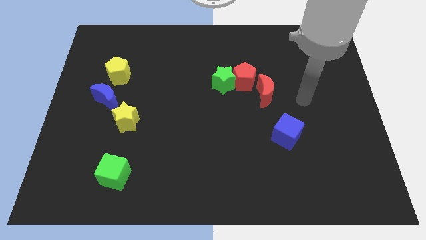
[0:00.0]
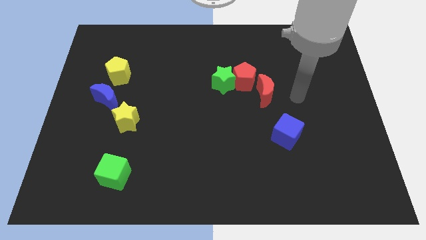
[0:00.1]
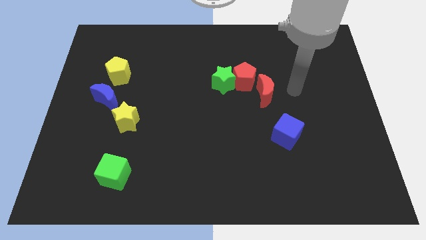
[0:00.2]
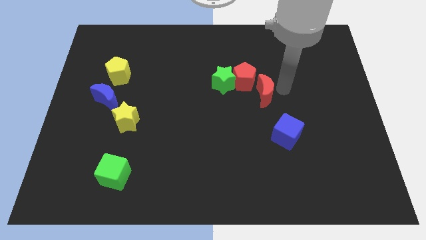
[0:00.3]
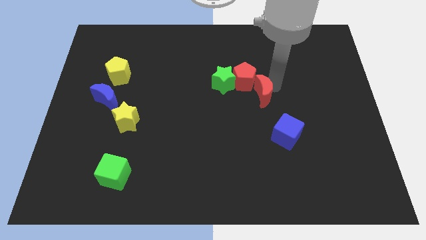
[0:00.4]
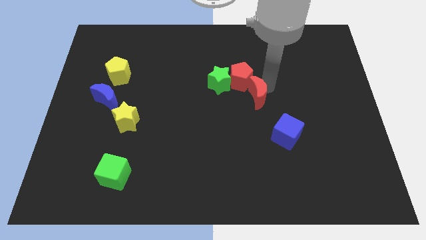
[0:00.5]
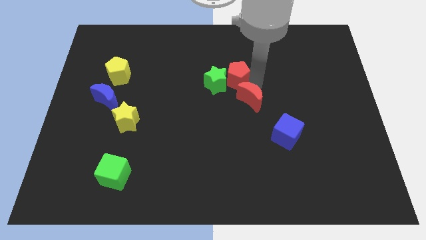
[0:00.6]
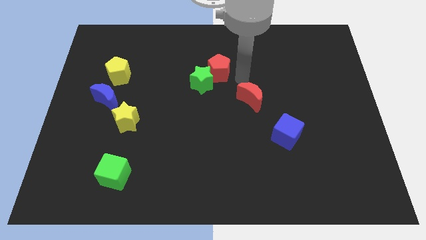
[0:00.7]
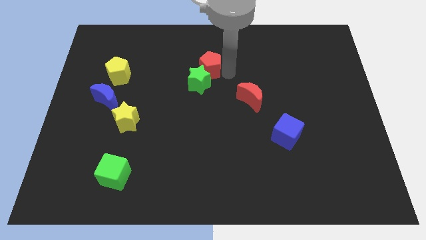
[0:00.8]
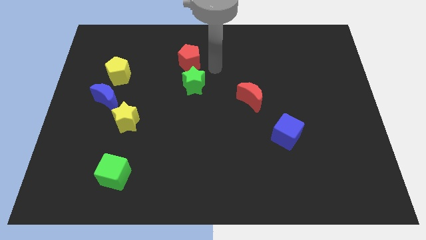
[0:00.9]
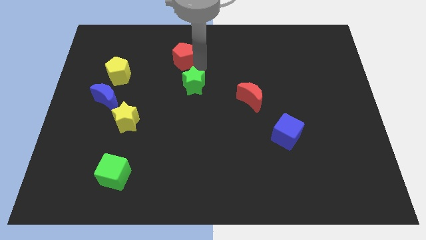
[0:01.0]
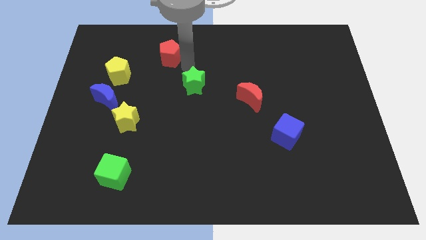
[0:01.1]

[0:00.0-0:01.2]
pull the green star apart from the red pentagon

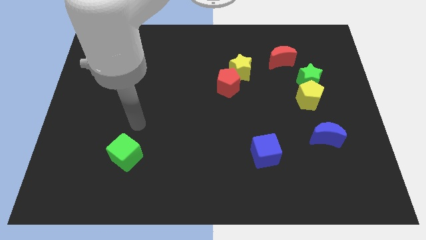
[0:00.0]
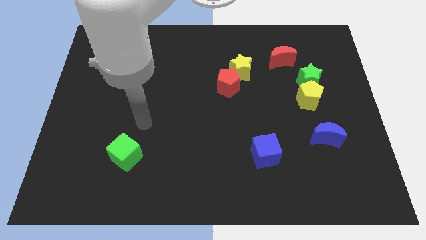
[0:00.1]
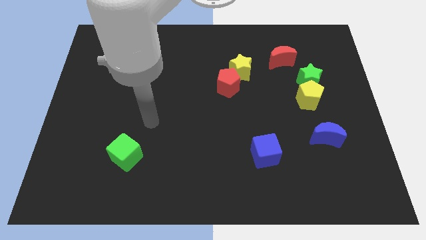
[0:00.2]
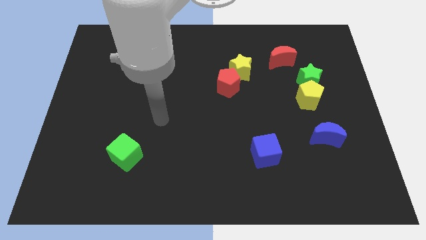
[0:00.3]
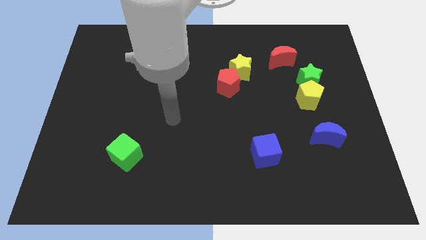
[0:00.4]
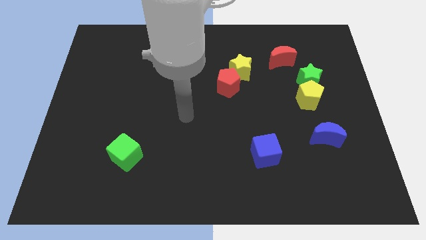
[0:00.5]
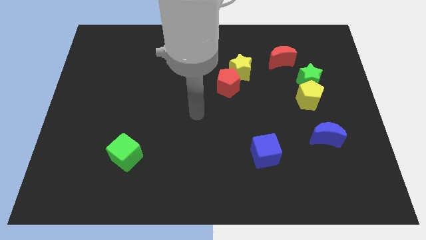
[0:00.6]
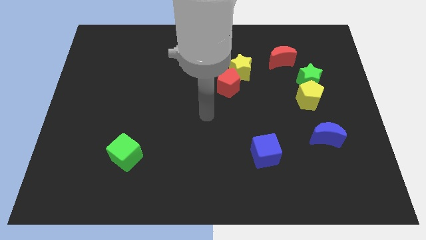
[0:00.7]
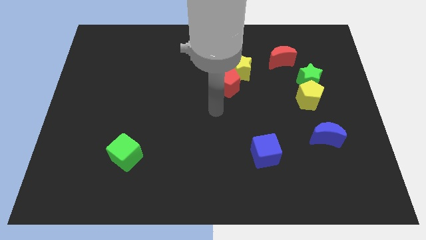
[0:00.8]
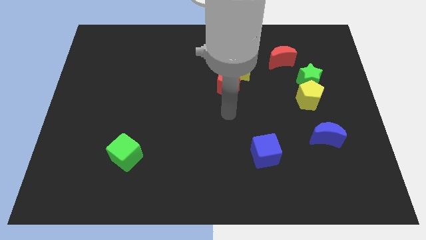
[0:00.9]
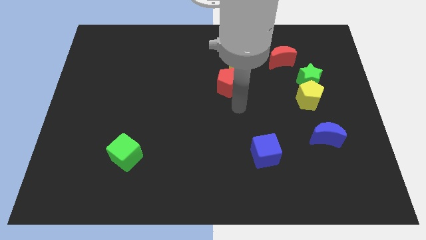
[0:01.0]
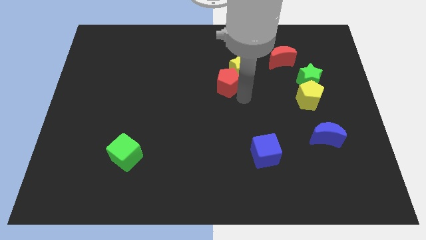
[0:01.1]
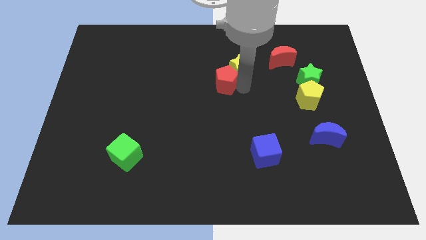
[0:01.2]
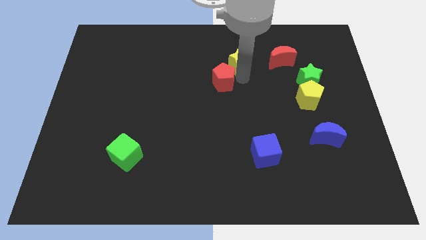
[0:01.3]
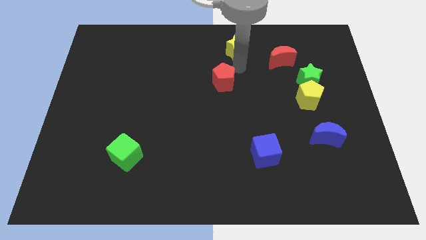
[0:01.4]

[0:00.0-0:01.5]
pull the red pentagon apart from the yellow star

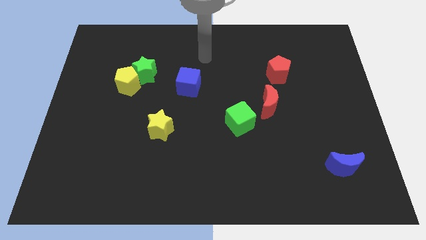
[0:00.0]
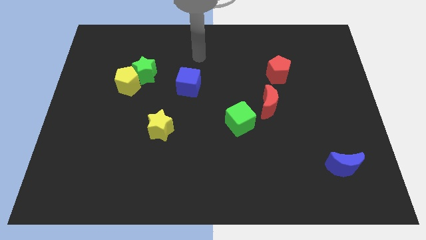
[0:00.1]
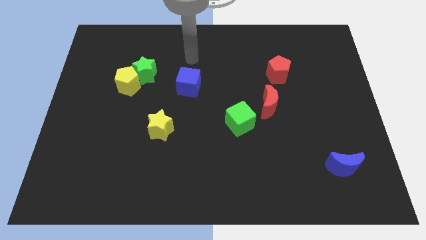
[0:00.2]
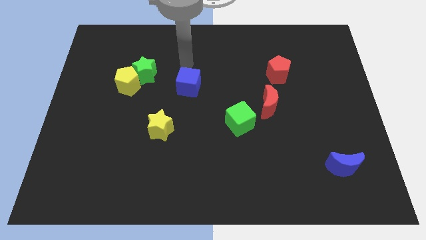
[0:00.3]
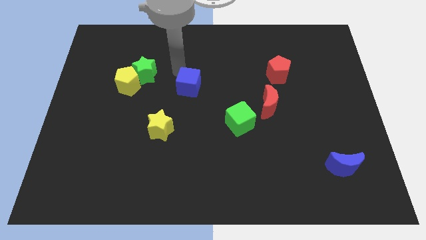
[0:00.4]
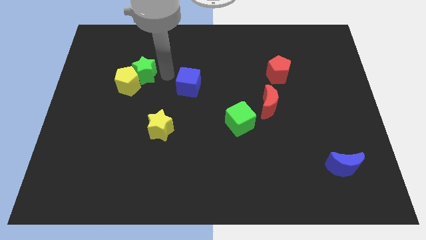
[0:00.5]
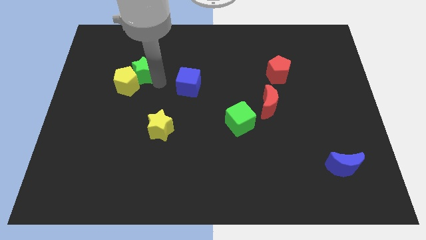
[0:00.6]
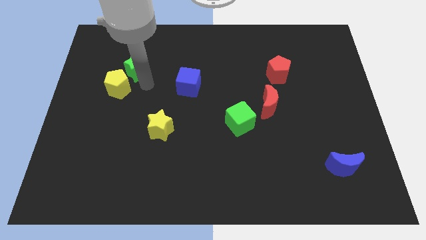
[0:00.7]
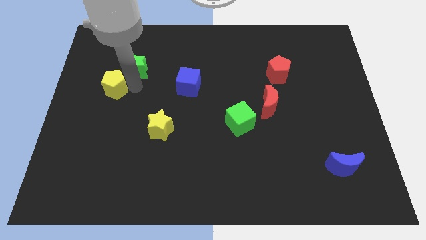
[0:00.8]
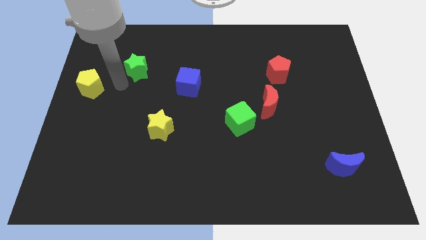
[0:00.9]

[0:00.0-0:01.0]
move the green star away from the yellow pentagon

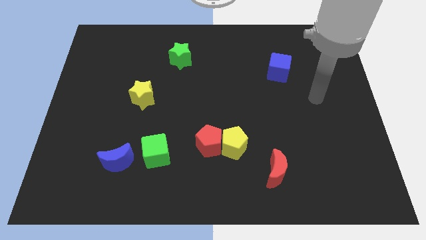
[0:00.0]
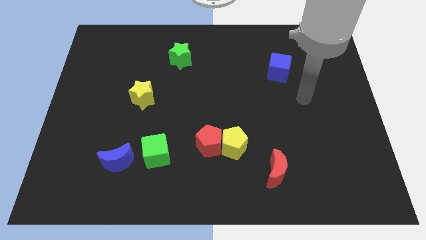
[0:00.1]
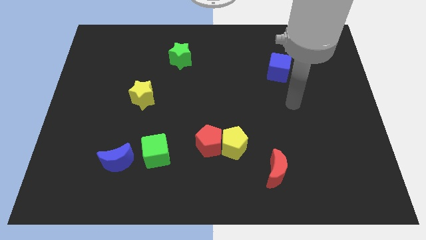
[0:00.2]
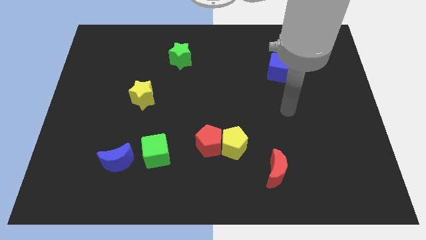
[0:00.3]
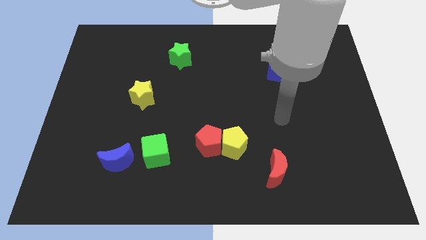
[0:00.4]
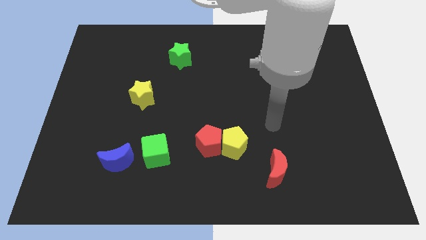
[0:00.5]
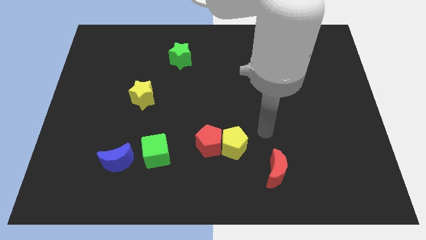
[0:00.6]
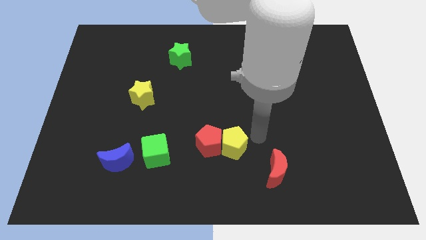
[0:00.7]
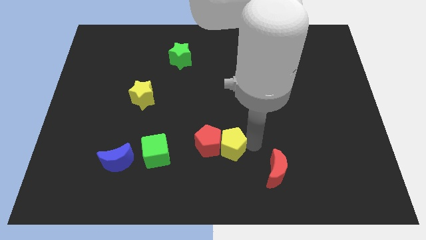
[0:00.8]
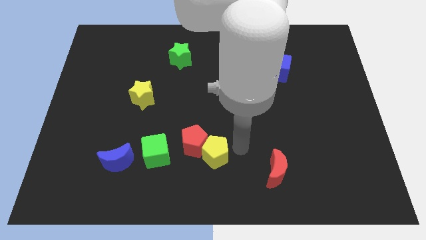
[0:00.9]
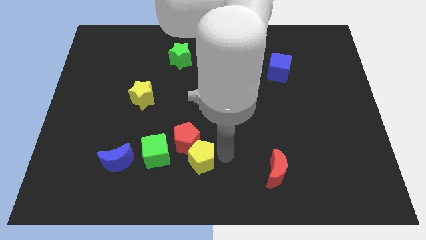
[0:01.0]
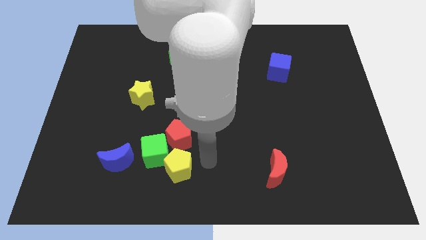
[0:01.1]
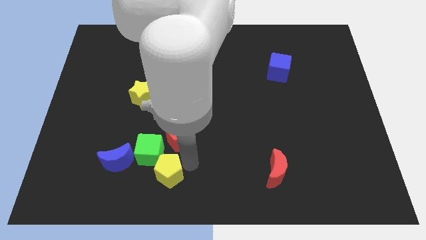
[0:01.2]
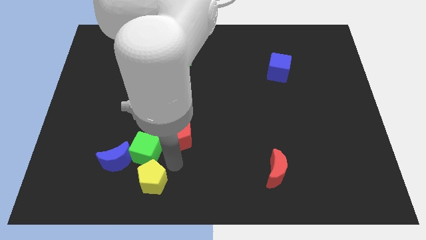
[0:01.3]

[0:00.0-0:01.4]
separate the red pentagon from the yellow pentagon

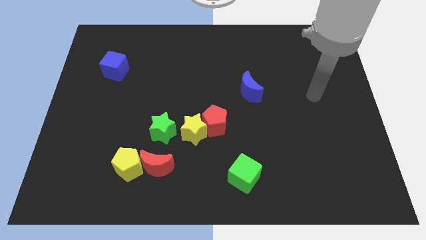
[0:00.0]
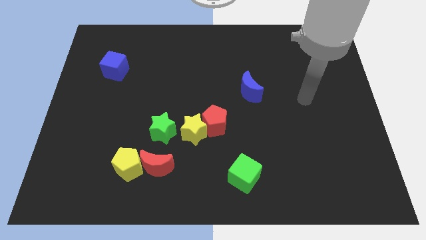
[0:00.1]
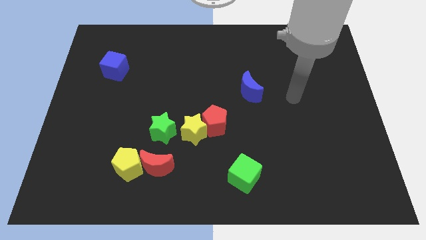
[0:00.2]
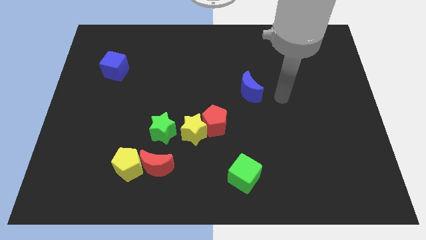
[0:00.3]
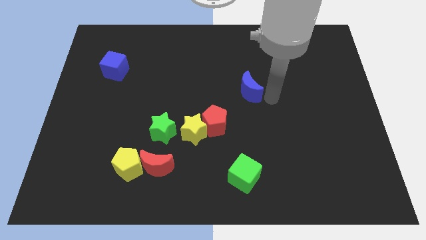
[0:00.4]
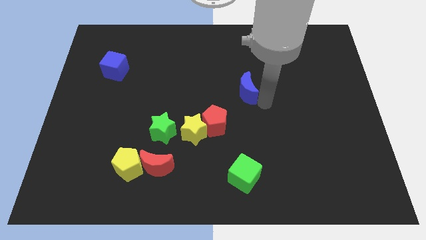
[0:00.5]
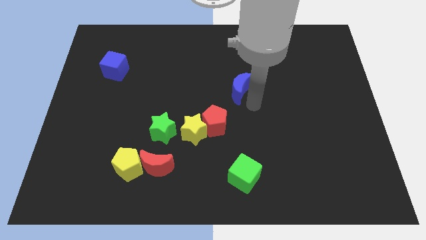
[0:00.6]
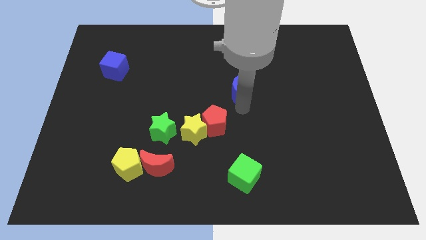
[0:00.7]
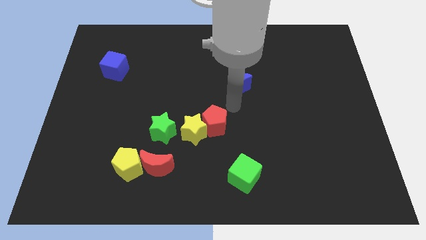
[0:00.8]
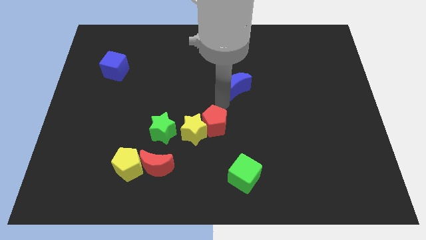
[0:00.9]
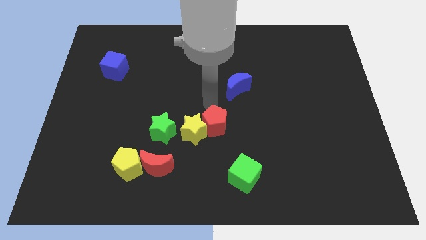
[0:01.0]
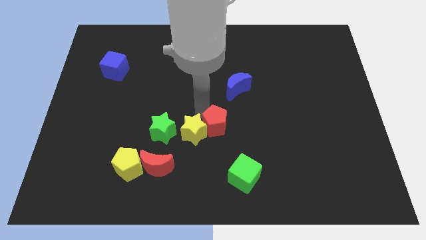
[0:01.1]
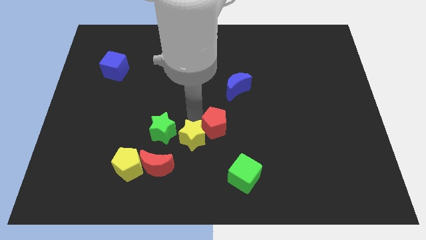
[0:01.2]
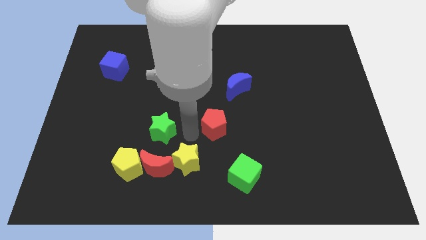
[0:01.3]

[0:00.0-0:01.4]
separate the red pentagon from the yellow star

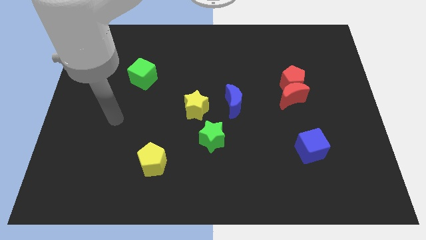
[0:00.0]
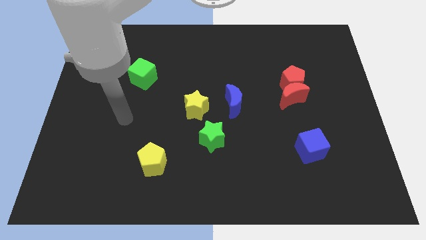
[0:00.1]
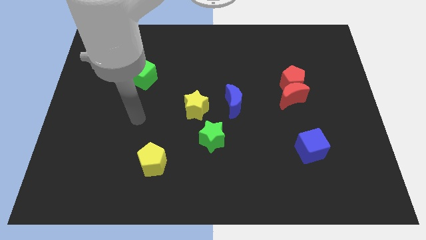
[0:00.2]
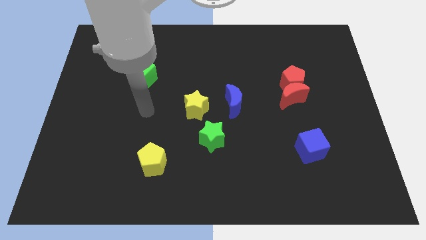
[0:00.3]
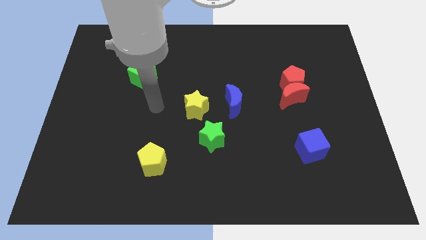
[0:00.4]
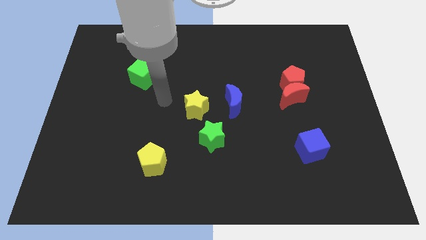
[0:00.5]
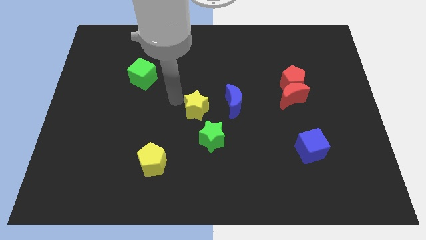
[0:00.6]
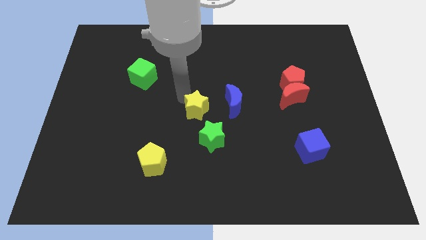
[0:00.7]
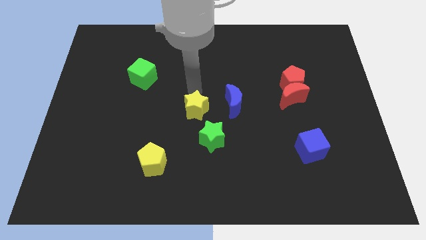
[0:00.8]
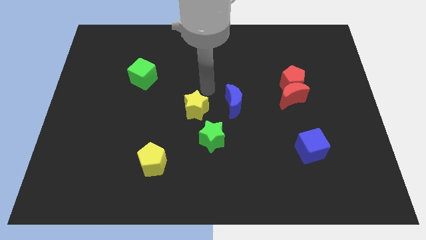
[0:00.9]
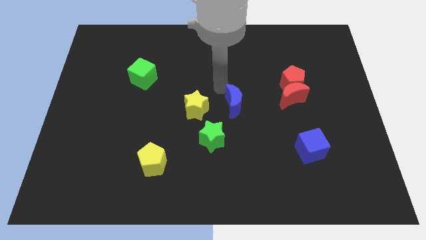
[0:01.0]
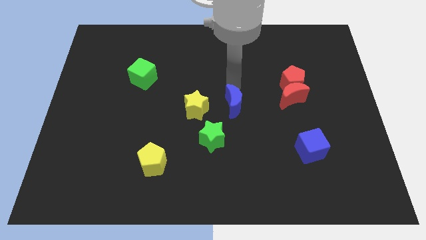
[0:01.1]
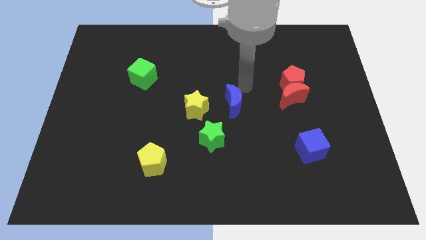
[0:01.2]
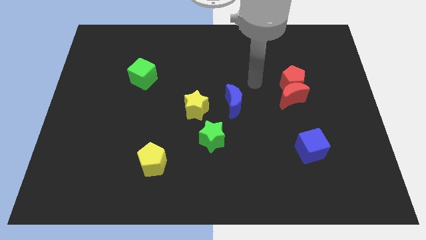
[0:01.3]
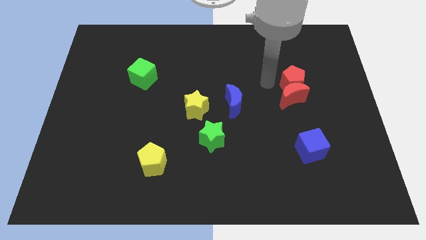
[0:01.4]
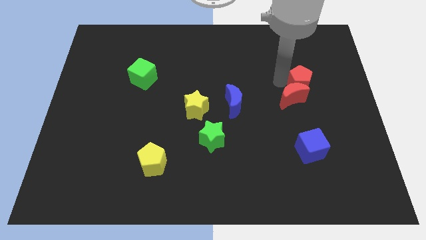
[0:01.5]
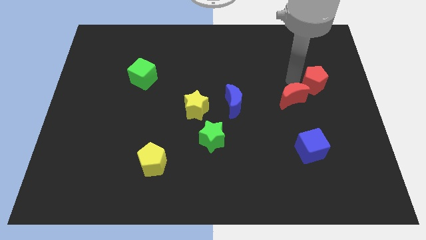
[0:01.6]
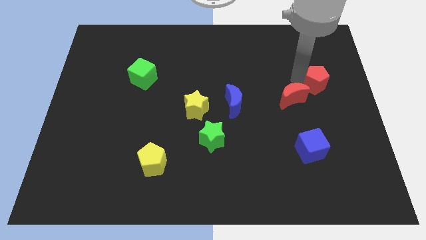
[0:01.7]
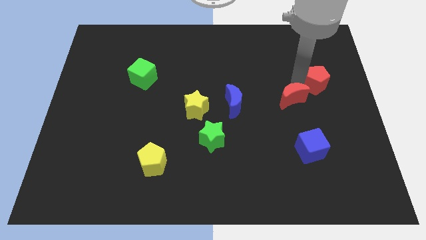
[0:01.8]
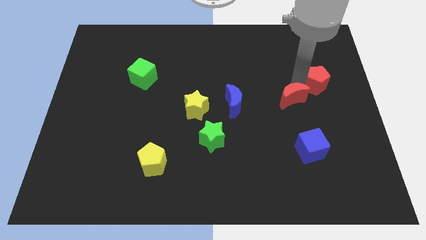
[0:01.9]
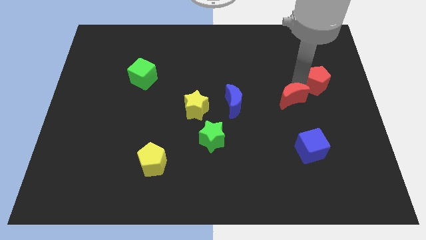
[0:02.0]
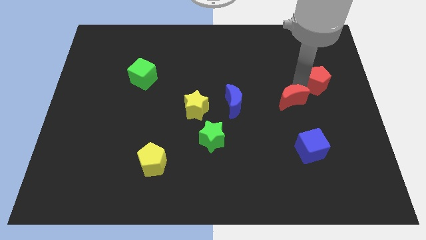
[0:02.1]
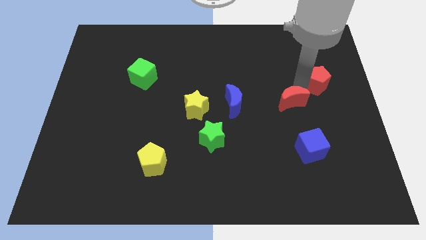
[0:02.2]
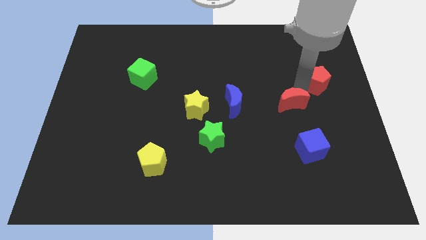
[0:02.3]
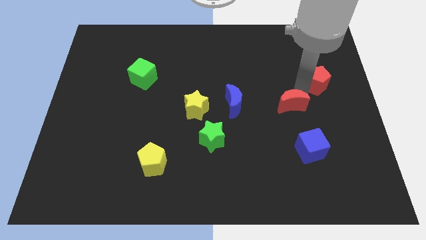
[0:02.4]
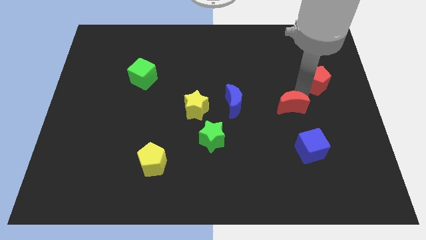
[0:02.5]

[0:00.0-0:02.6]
move the red moon away from the red pentagon

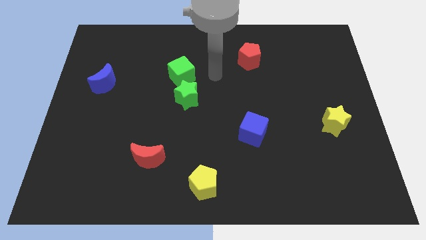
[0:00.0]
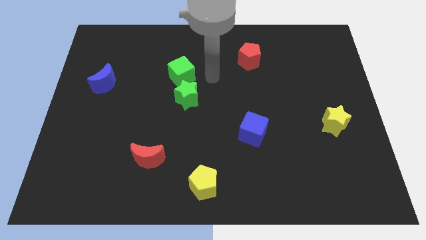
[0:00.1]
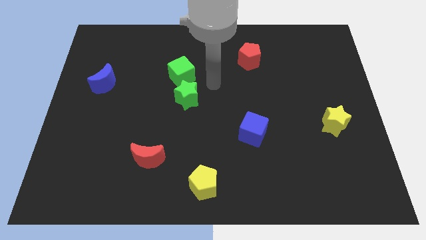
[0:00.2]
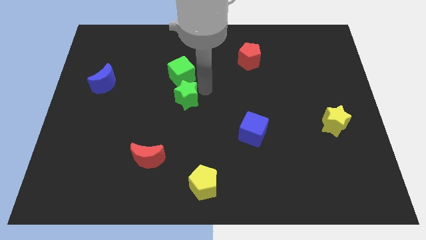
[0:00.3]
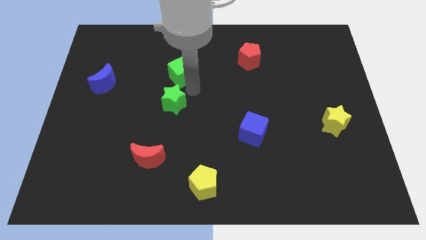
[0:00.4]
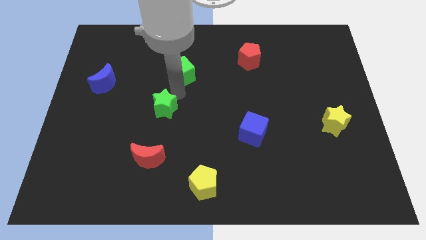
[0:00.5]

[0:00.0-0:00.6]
move the green cube away from the green star
